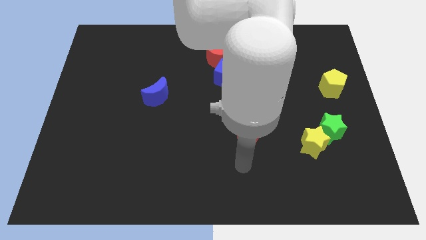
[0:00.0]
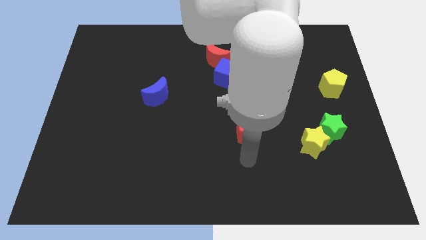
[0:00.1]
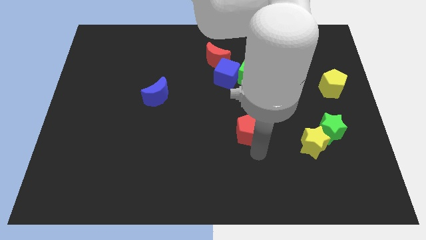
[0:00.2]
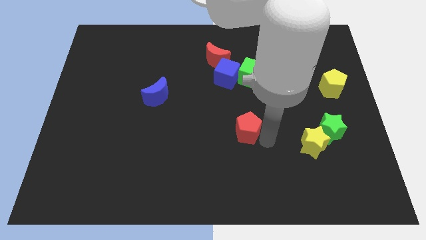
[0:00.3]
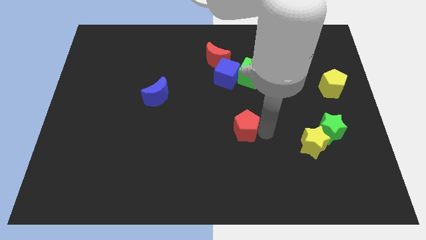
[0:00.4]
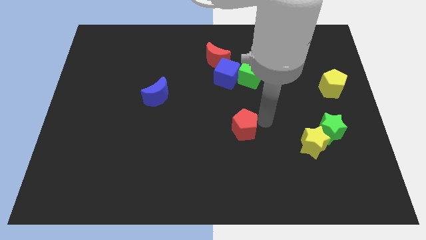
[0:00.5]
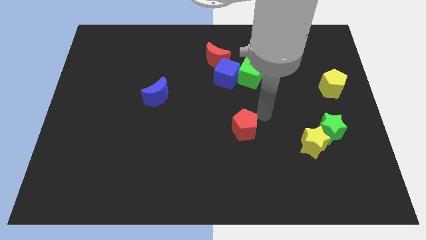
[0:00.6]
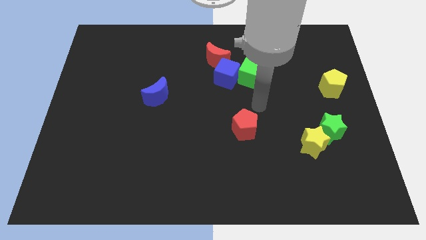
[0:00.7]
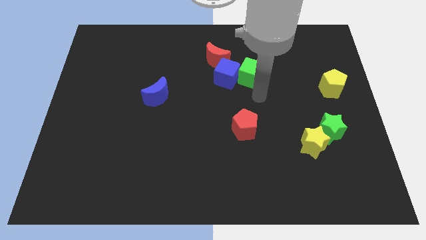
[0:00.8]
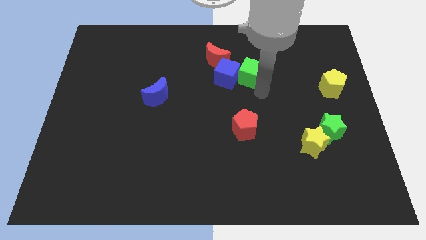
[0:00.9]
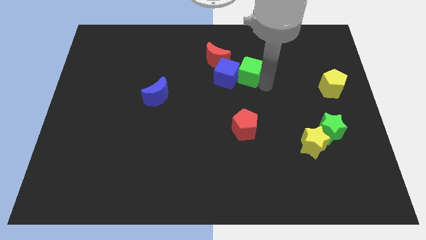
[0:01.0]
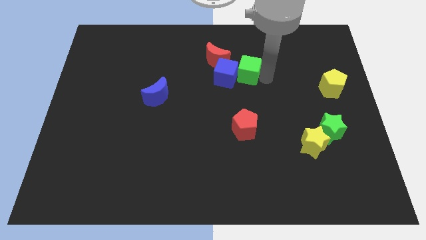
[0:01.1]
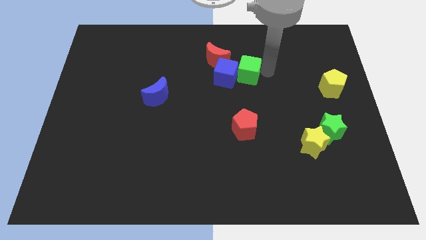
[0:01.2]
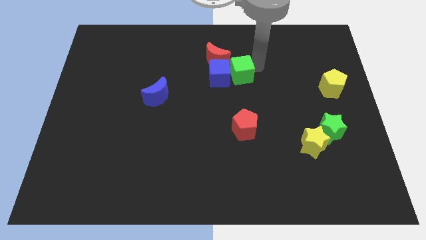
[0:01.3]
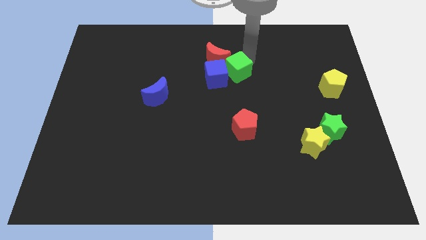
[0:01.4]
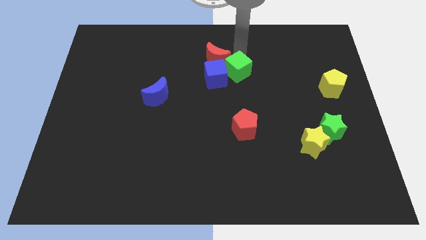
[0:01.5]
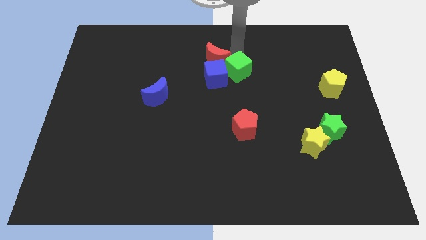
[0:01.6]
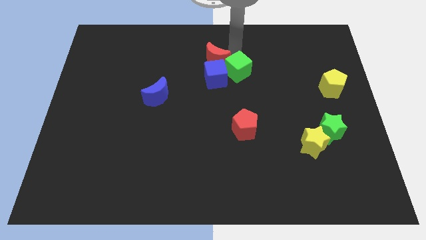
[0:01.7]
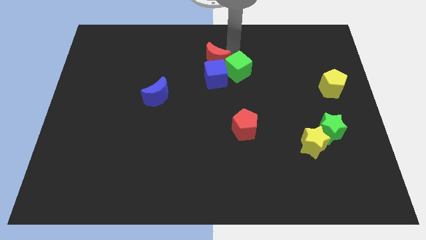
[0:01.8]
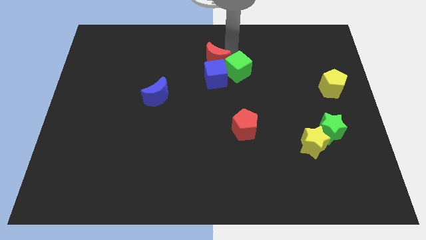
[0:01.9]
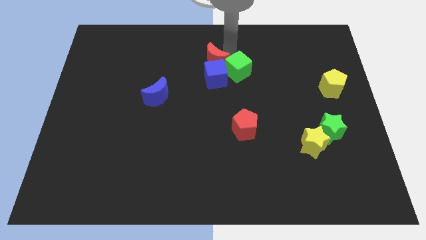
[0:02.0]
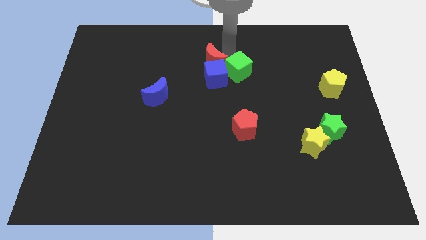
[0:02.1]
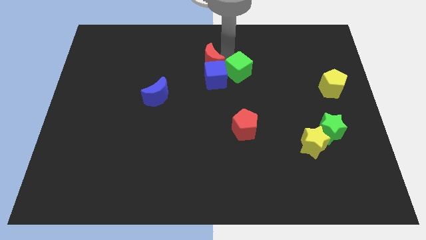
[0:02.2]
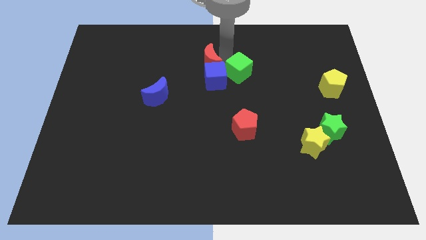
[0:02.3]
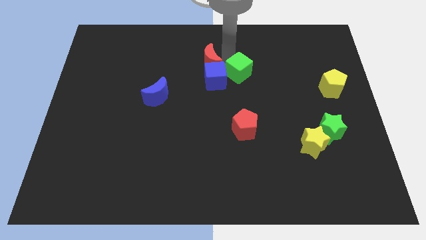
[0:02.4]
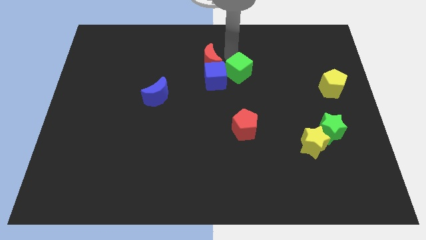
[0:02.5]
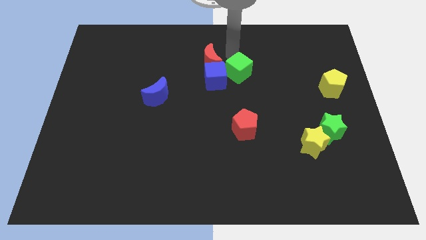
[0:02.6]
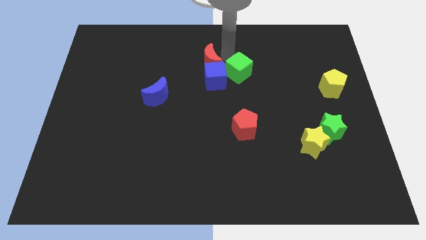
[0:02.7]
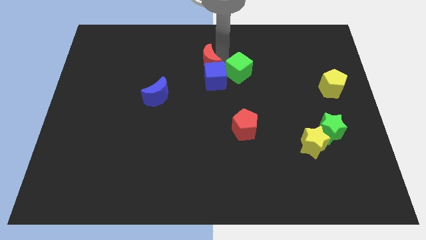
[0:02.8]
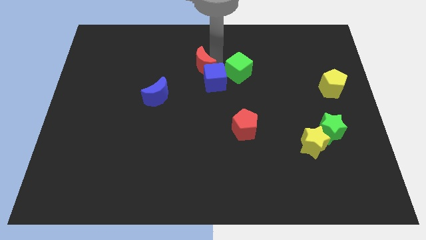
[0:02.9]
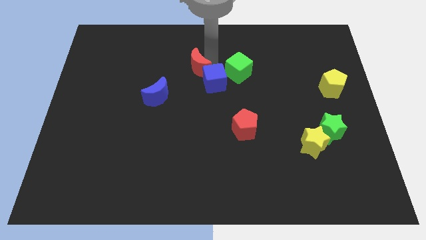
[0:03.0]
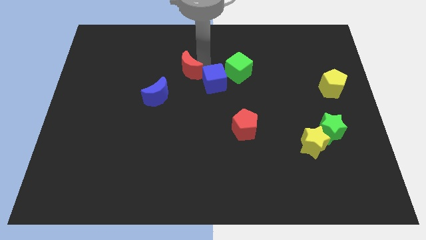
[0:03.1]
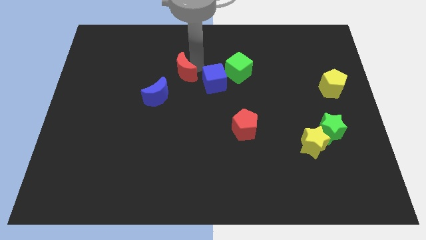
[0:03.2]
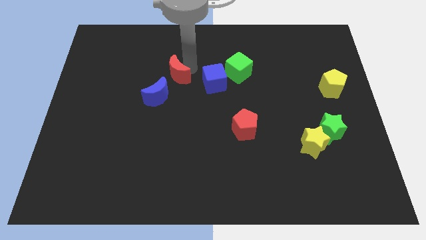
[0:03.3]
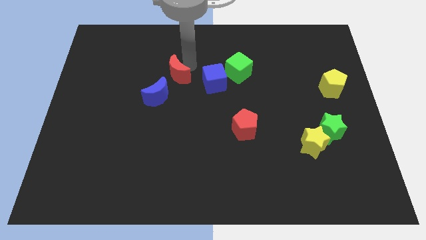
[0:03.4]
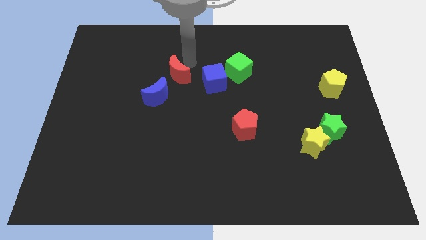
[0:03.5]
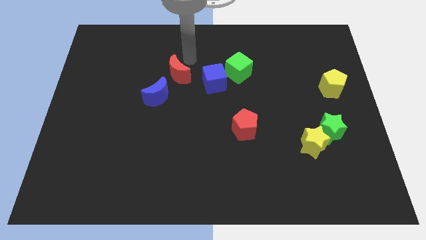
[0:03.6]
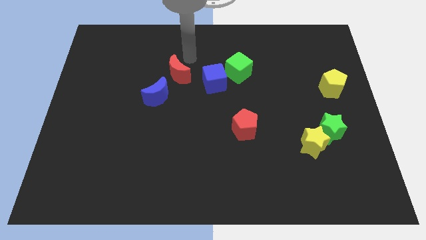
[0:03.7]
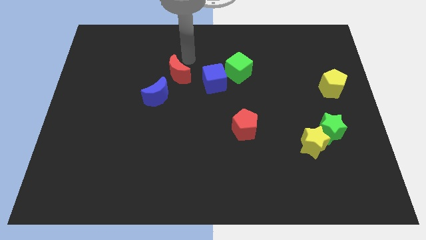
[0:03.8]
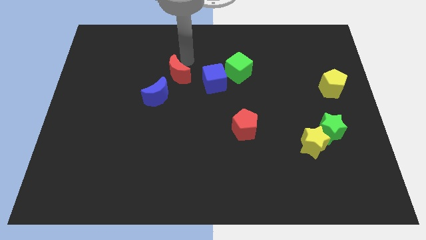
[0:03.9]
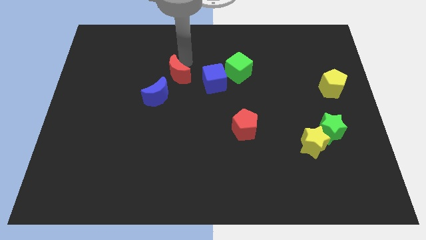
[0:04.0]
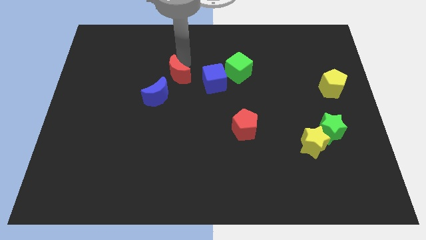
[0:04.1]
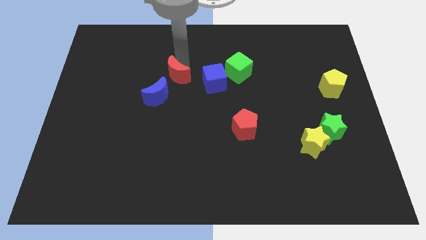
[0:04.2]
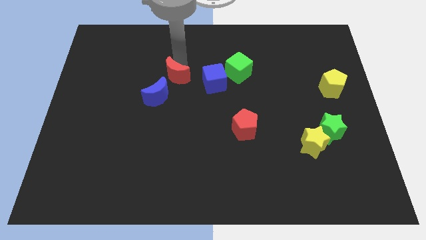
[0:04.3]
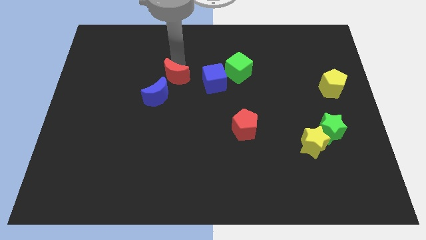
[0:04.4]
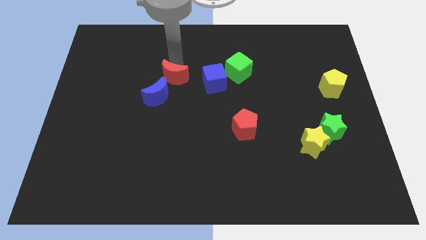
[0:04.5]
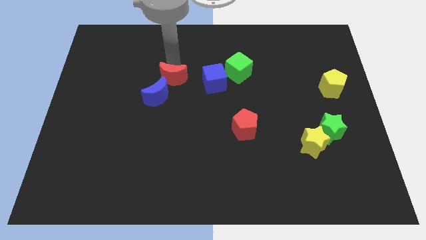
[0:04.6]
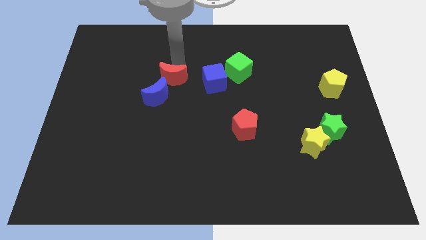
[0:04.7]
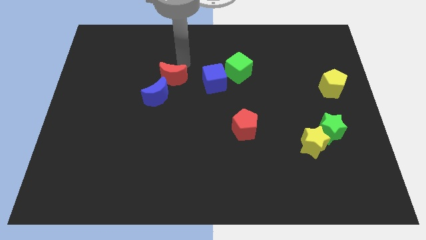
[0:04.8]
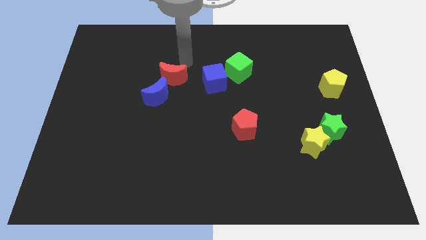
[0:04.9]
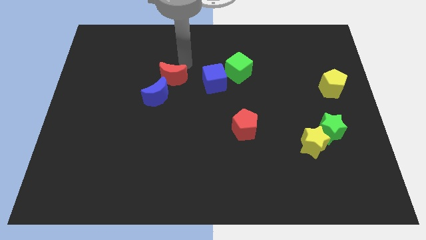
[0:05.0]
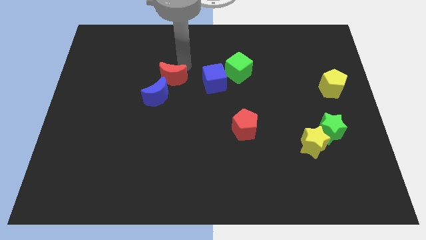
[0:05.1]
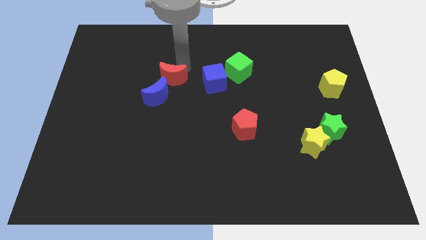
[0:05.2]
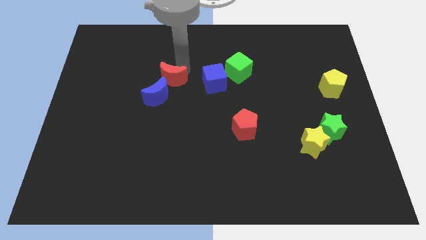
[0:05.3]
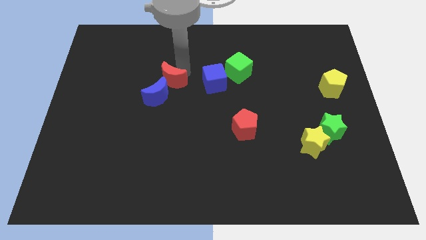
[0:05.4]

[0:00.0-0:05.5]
move the red moon close to the blue moon

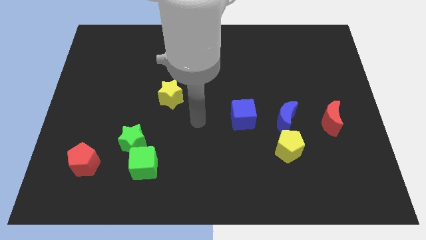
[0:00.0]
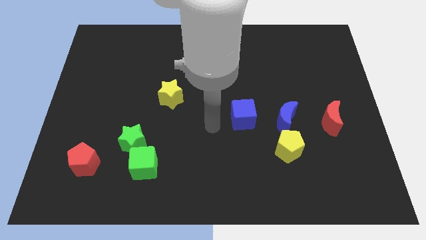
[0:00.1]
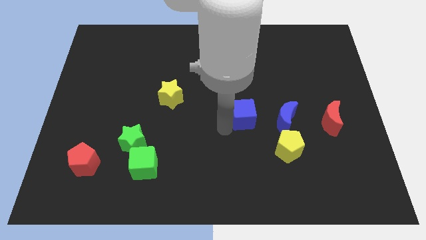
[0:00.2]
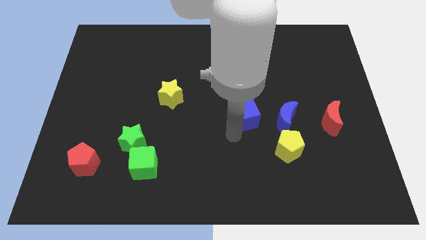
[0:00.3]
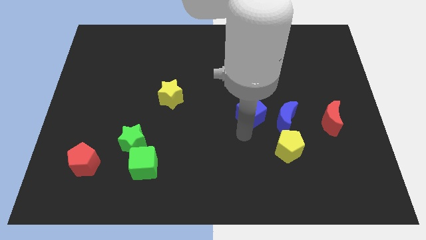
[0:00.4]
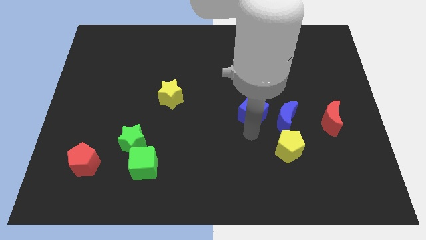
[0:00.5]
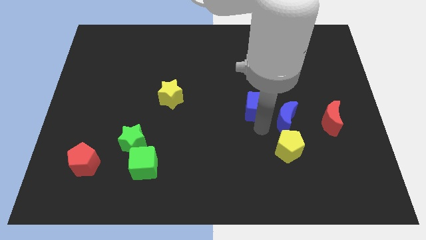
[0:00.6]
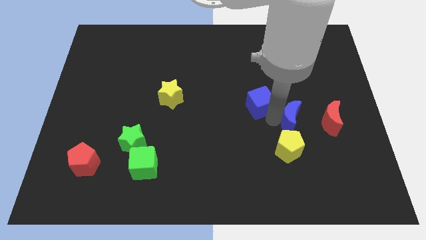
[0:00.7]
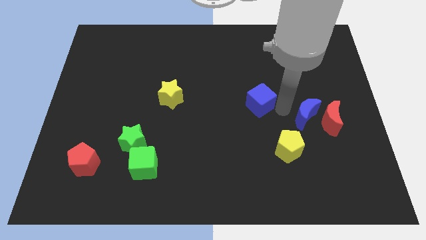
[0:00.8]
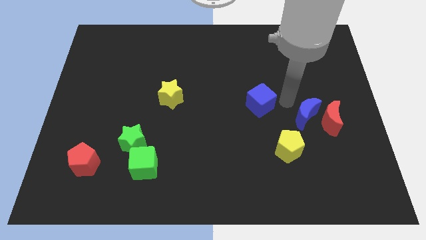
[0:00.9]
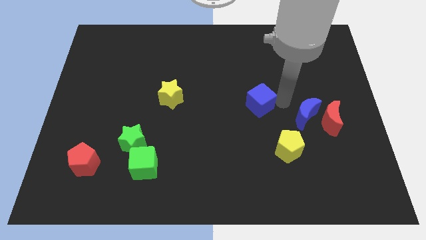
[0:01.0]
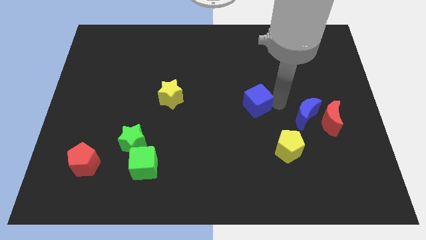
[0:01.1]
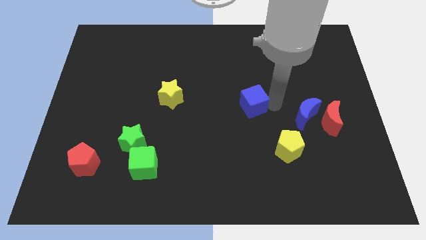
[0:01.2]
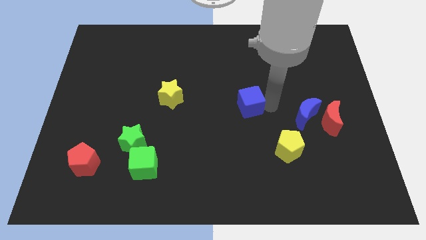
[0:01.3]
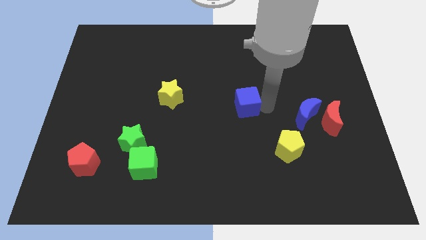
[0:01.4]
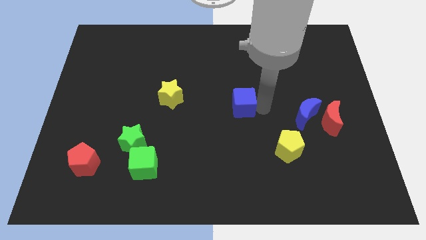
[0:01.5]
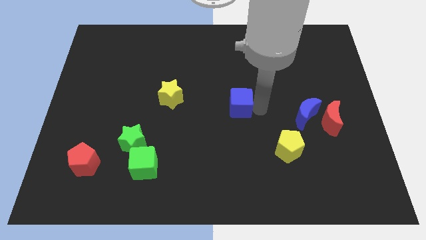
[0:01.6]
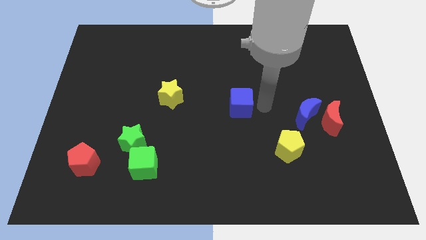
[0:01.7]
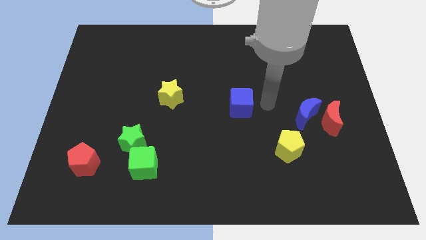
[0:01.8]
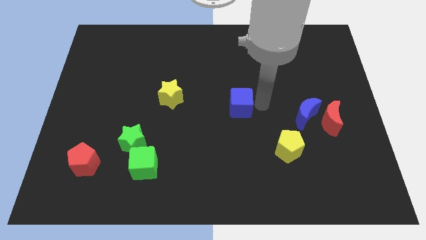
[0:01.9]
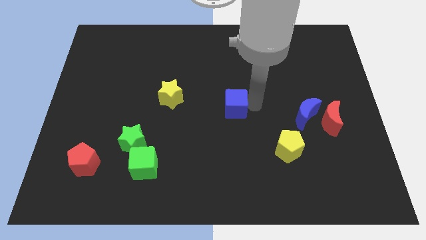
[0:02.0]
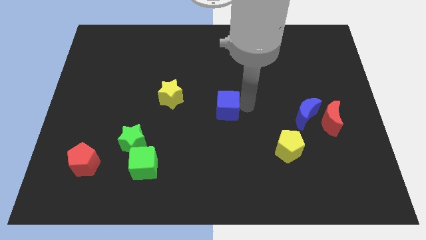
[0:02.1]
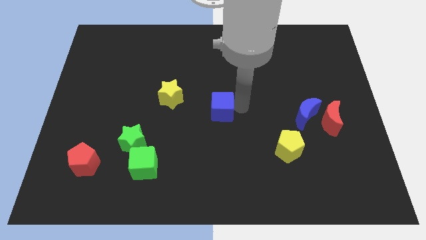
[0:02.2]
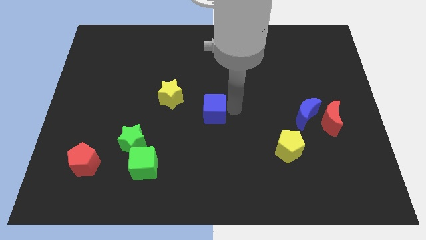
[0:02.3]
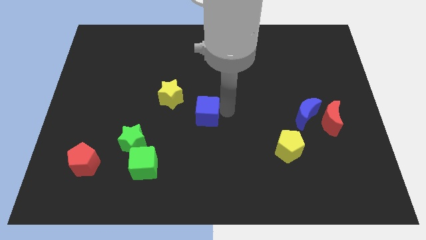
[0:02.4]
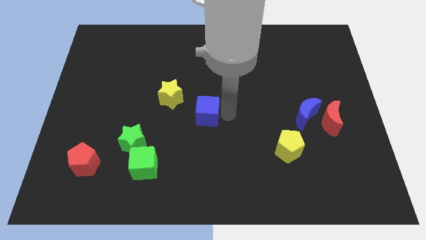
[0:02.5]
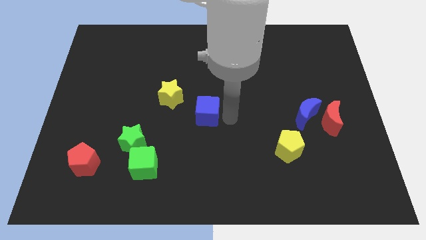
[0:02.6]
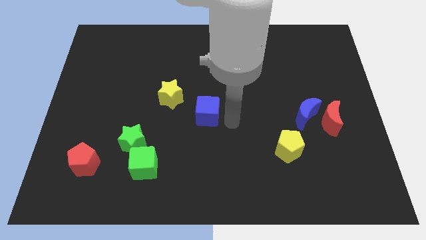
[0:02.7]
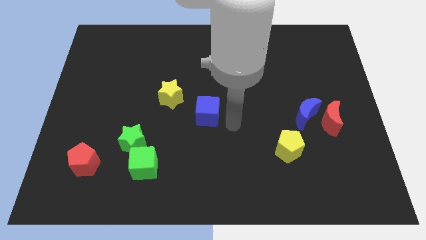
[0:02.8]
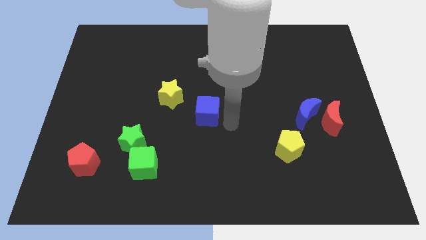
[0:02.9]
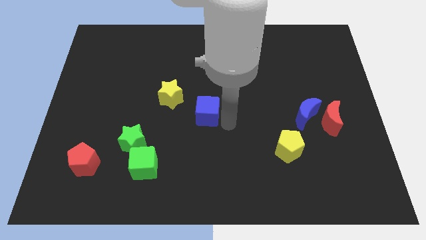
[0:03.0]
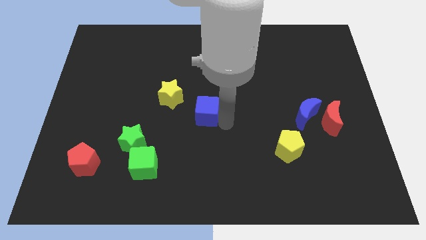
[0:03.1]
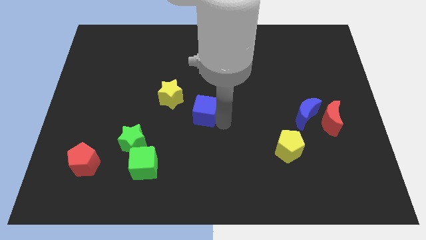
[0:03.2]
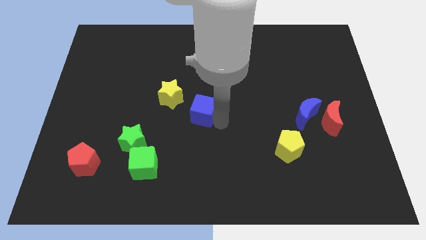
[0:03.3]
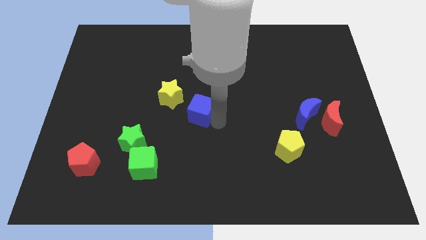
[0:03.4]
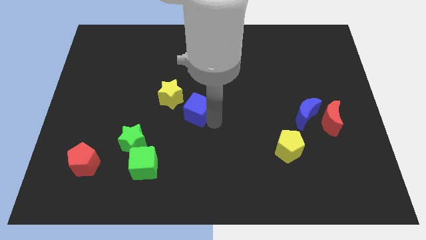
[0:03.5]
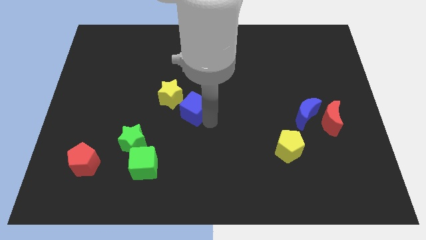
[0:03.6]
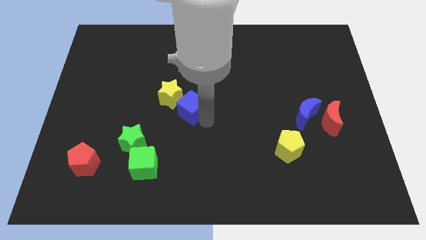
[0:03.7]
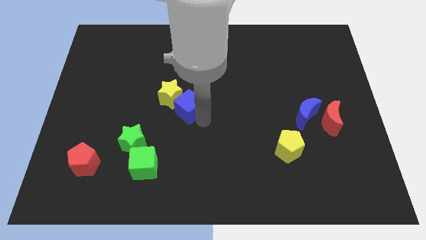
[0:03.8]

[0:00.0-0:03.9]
slide the blue cube next to the yellow star
